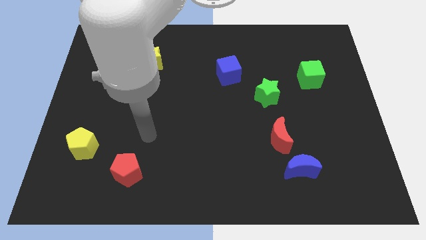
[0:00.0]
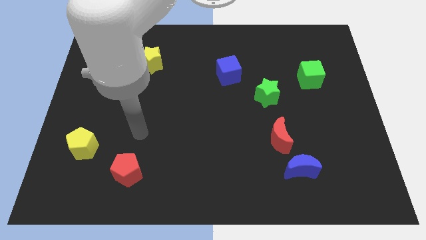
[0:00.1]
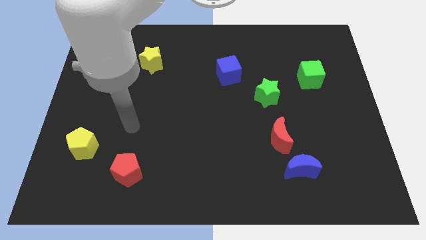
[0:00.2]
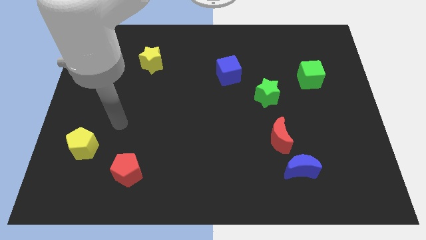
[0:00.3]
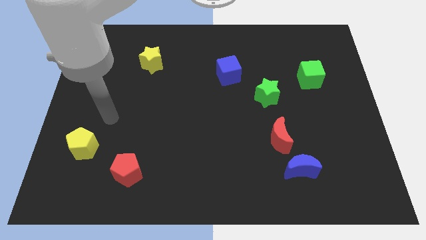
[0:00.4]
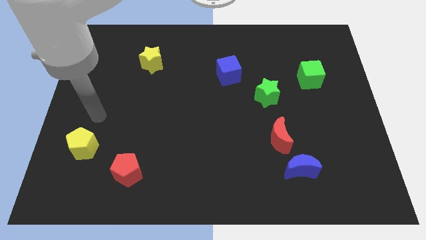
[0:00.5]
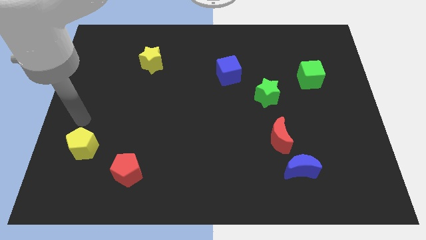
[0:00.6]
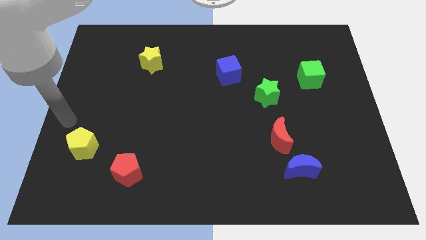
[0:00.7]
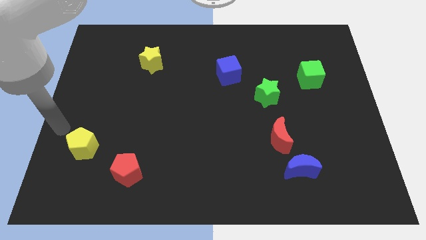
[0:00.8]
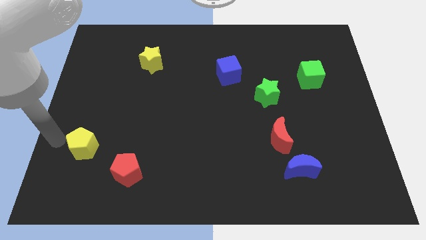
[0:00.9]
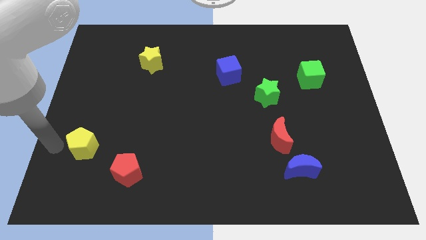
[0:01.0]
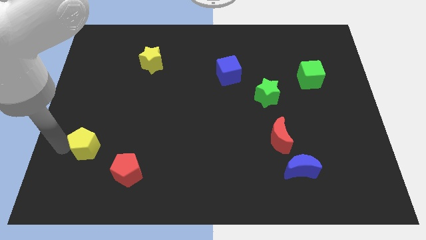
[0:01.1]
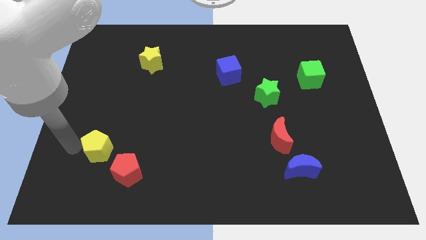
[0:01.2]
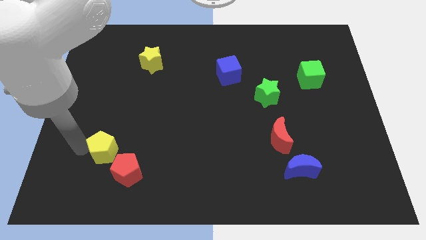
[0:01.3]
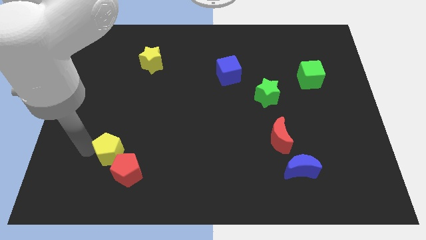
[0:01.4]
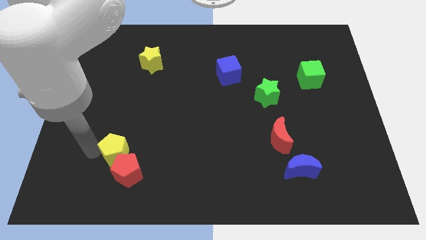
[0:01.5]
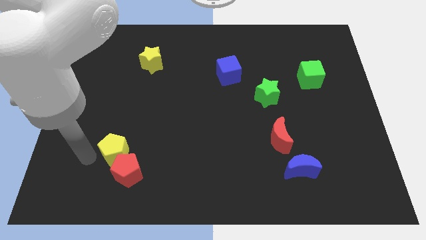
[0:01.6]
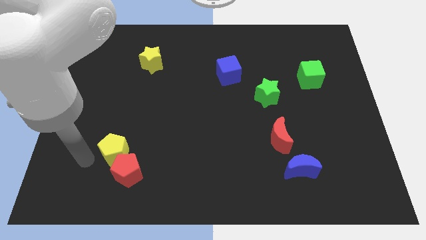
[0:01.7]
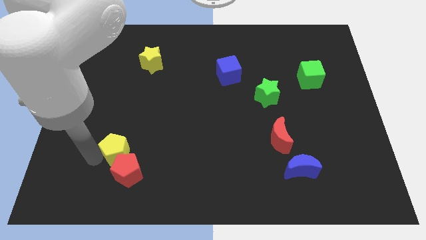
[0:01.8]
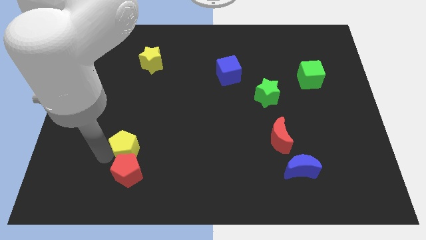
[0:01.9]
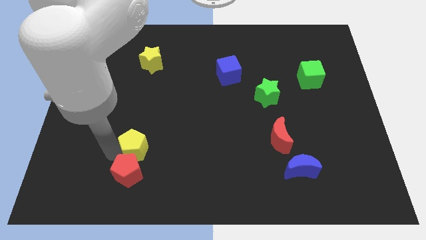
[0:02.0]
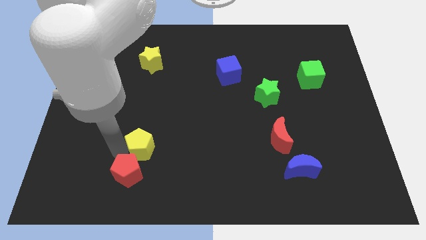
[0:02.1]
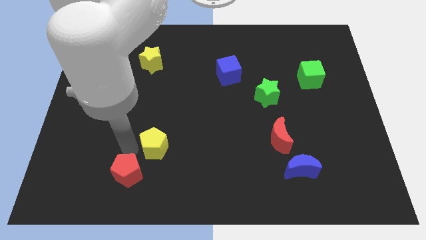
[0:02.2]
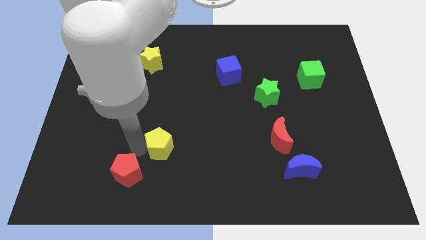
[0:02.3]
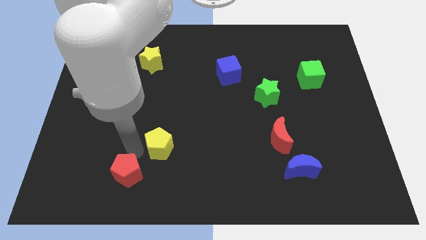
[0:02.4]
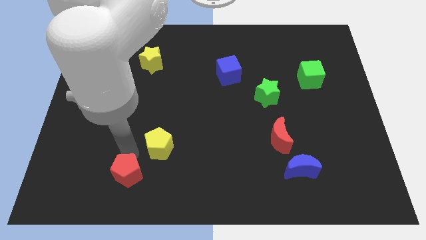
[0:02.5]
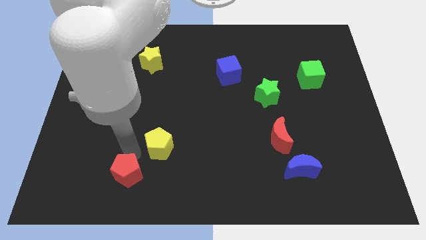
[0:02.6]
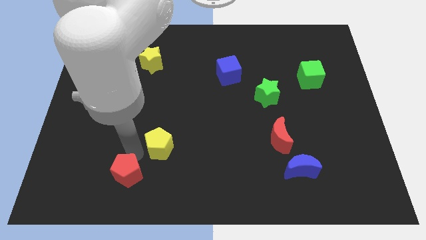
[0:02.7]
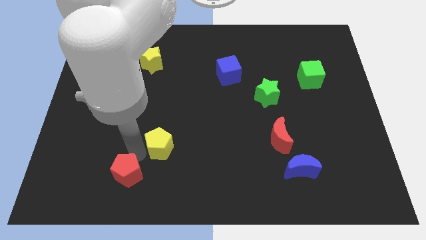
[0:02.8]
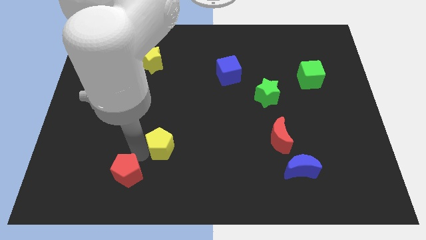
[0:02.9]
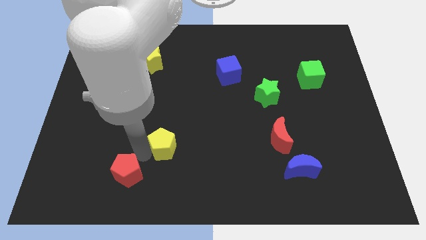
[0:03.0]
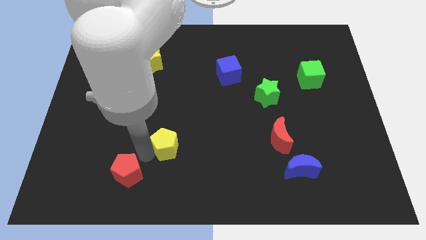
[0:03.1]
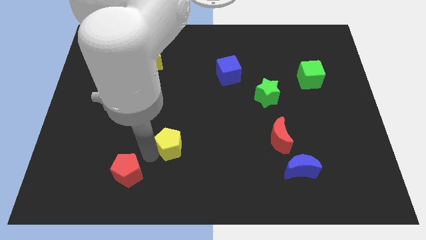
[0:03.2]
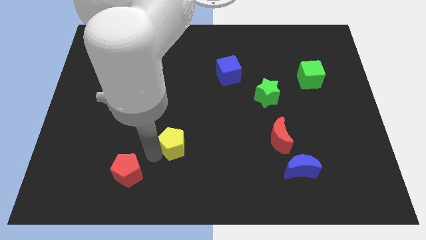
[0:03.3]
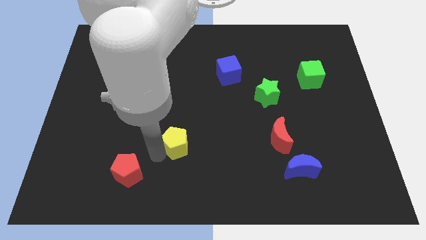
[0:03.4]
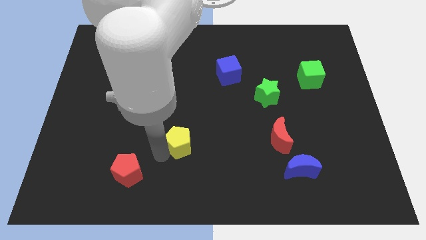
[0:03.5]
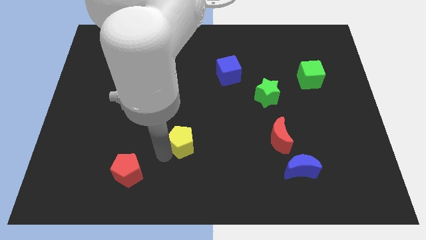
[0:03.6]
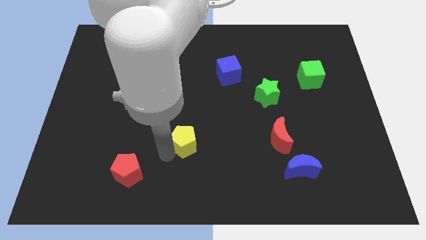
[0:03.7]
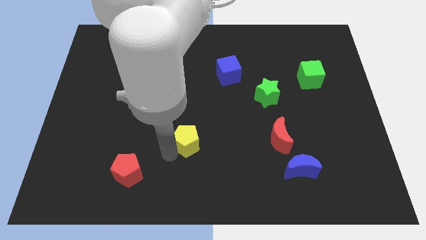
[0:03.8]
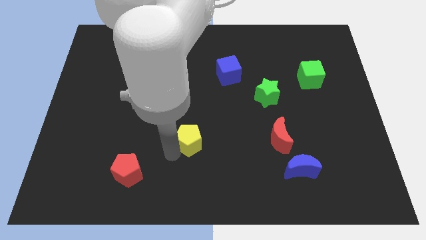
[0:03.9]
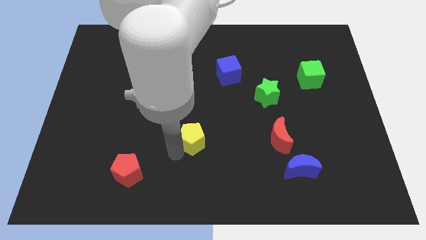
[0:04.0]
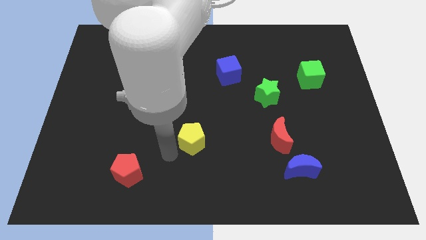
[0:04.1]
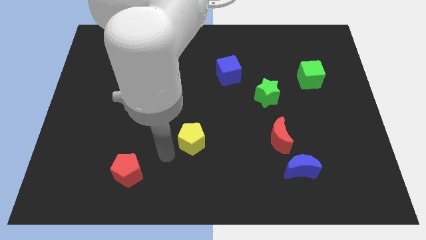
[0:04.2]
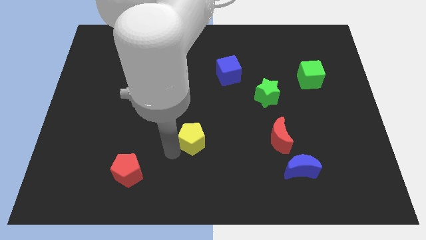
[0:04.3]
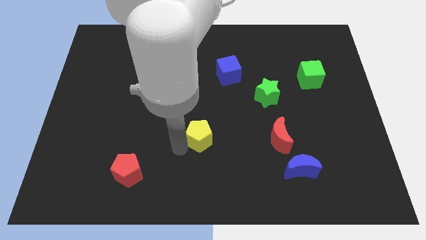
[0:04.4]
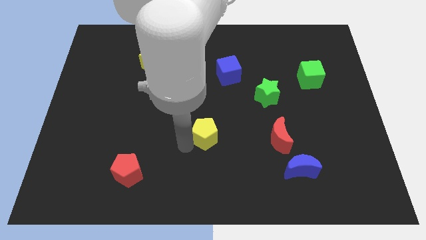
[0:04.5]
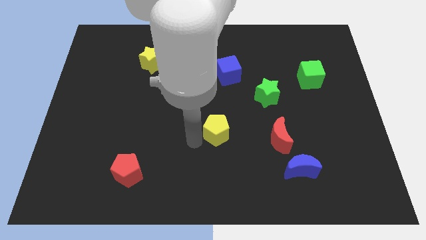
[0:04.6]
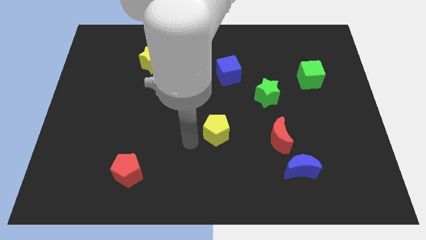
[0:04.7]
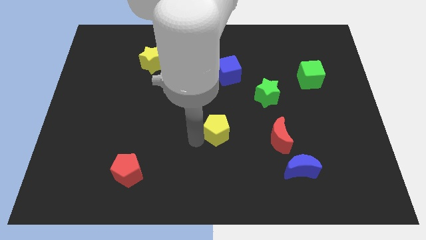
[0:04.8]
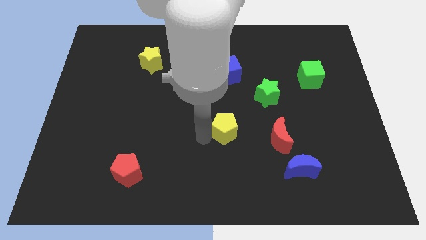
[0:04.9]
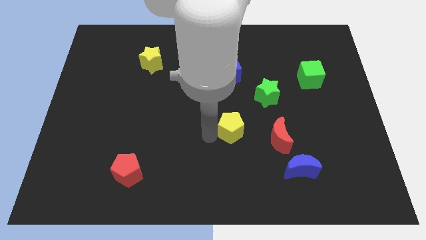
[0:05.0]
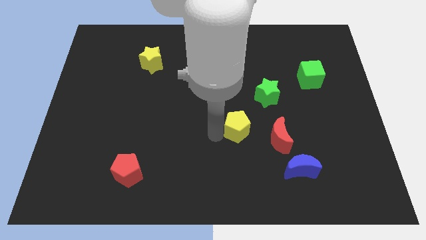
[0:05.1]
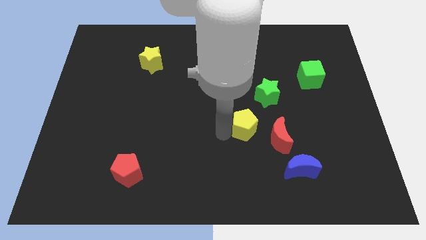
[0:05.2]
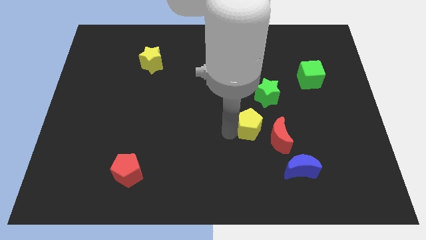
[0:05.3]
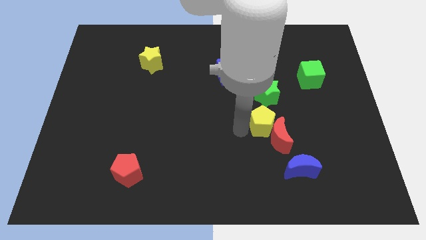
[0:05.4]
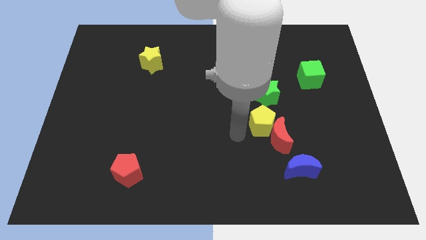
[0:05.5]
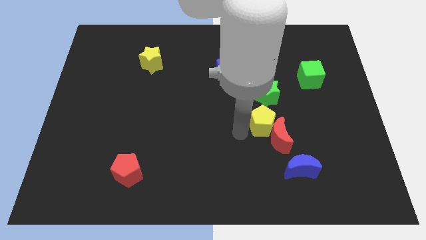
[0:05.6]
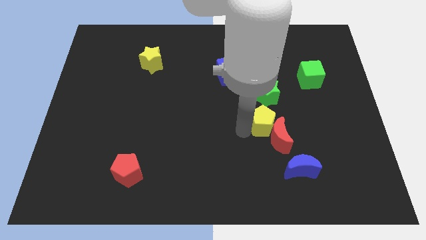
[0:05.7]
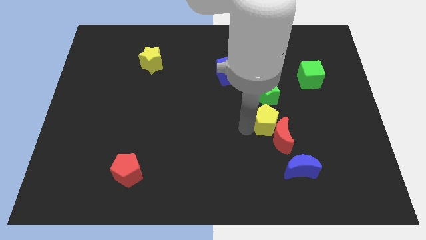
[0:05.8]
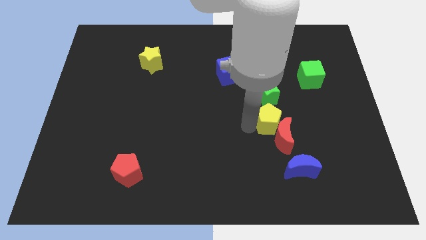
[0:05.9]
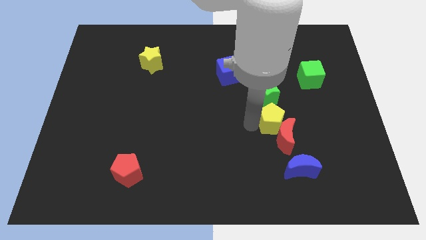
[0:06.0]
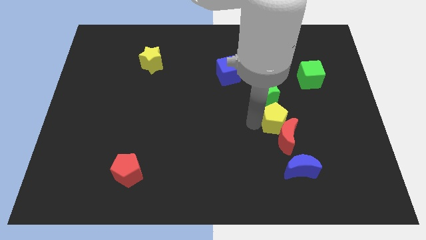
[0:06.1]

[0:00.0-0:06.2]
slide the yellow pentagon to the bottom right of the green star

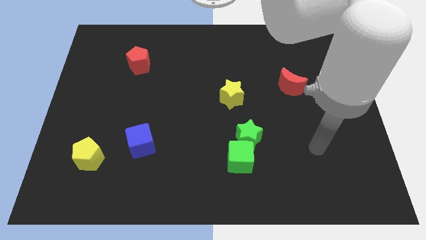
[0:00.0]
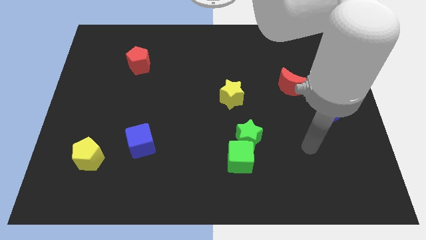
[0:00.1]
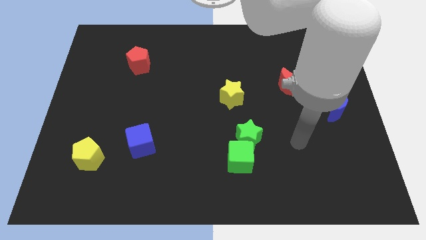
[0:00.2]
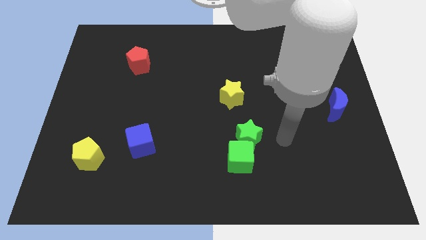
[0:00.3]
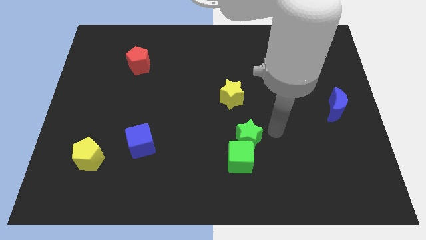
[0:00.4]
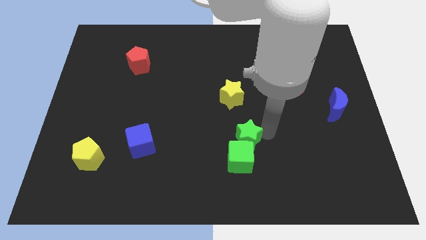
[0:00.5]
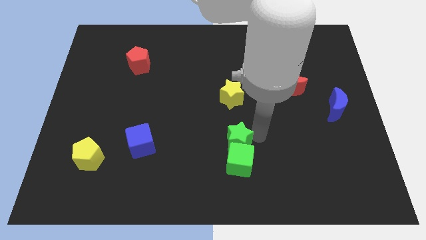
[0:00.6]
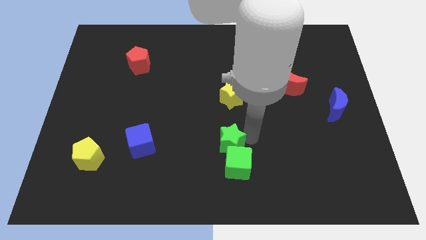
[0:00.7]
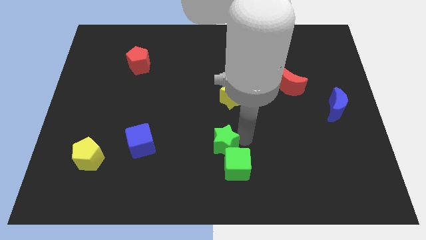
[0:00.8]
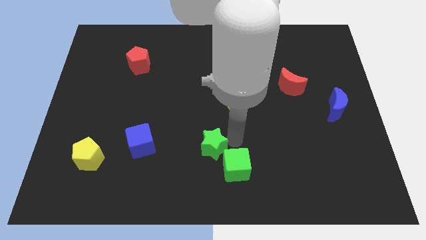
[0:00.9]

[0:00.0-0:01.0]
put the green star just left of the green cube
